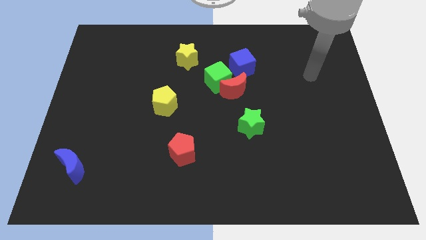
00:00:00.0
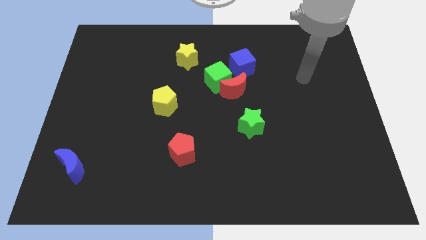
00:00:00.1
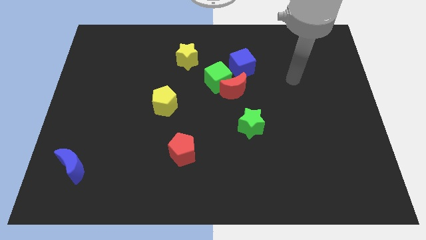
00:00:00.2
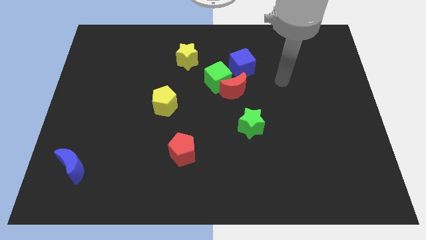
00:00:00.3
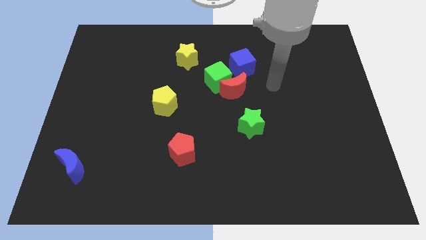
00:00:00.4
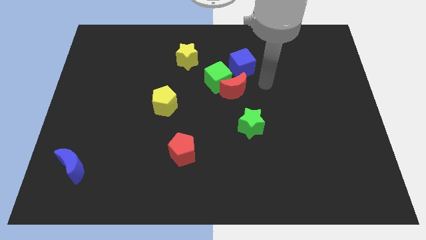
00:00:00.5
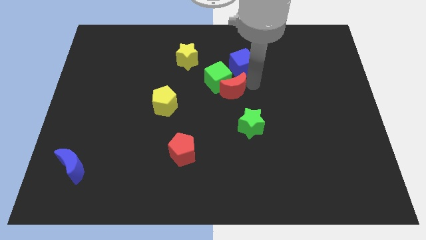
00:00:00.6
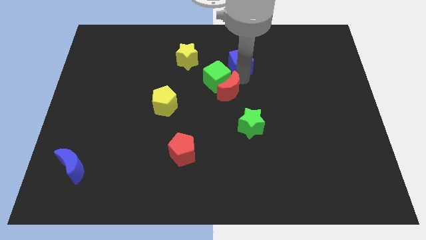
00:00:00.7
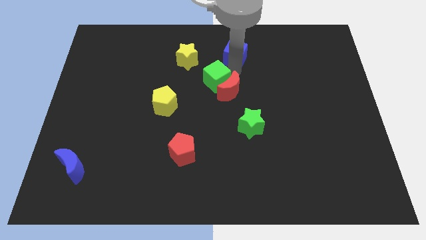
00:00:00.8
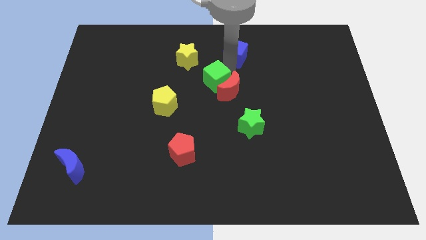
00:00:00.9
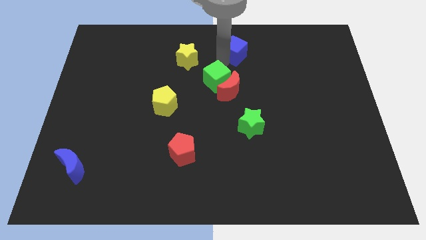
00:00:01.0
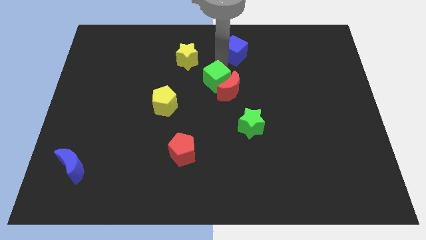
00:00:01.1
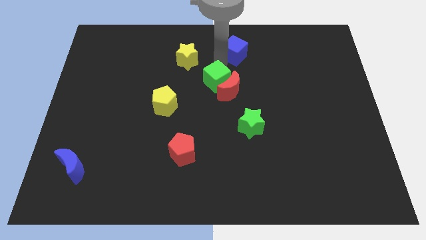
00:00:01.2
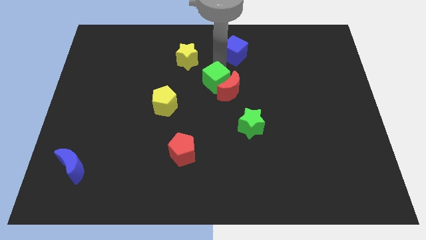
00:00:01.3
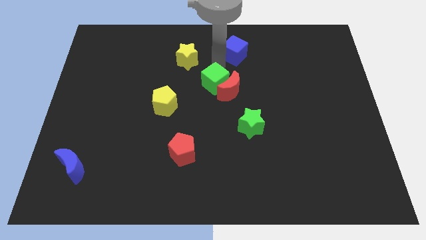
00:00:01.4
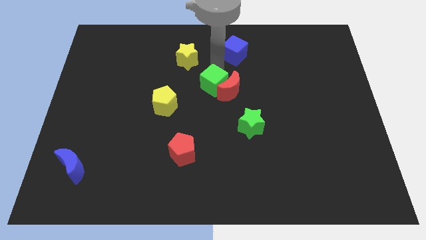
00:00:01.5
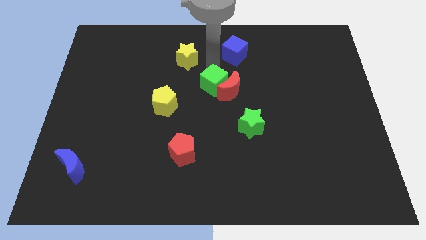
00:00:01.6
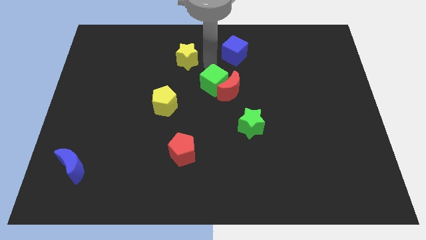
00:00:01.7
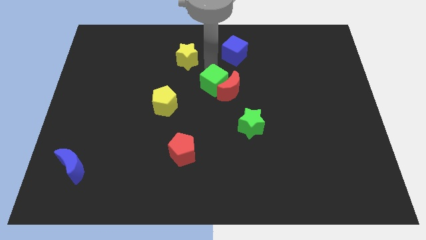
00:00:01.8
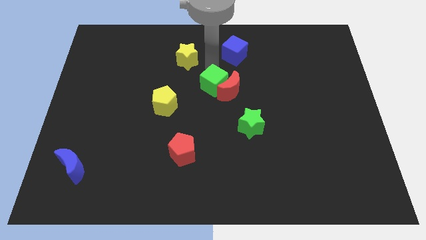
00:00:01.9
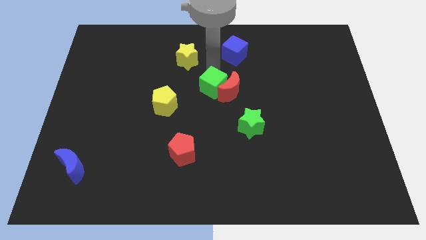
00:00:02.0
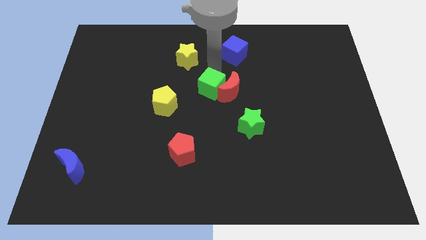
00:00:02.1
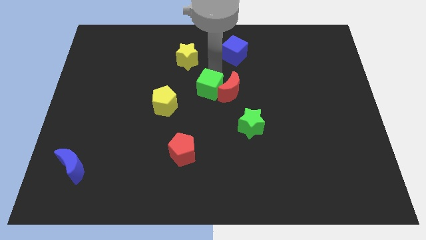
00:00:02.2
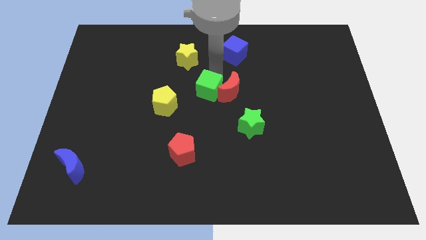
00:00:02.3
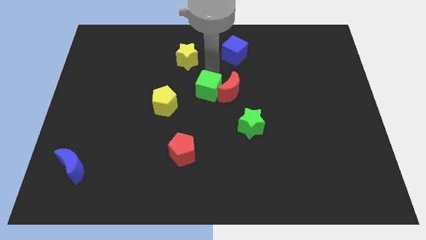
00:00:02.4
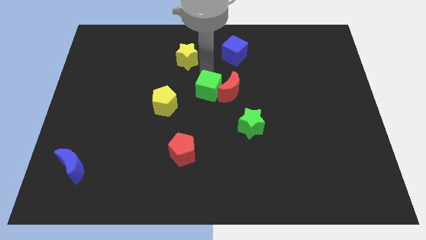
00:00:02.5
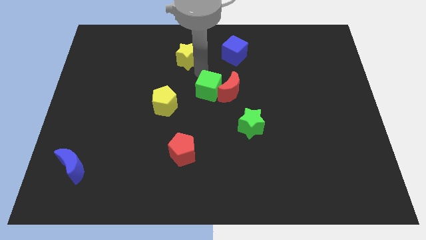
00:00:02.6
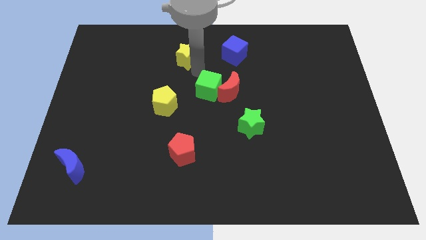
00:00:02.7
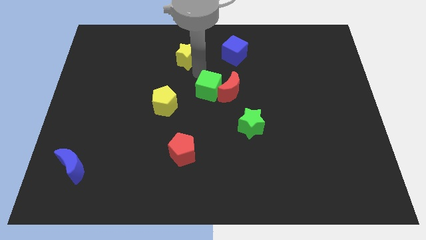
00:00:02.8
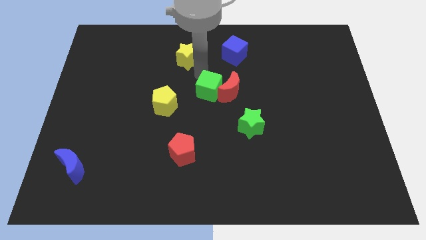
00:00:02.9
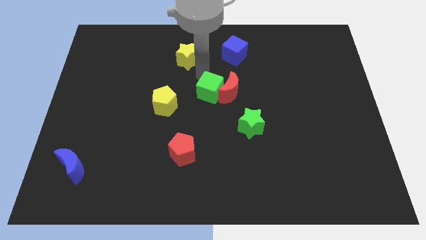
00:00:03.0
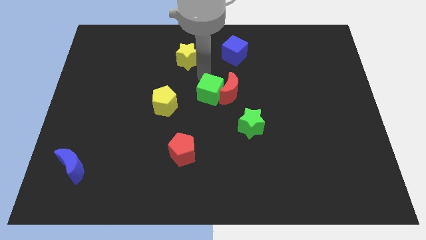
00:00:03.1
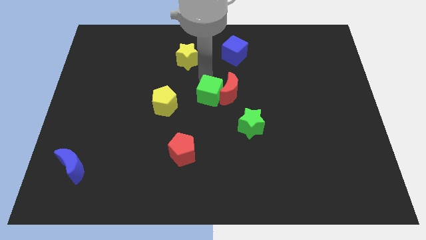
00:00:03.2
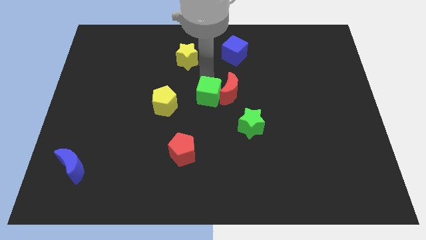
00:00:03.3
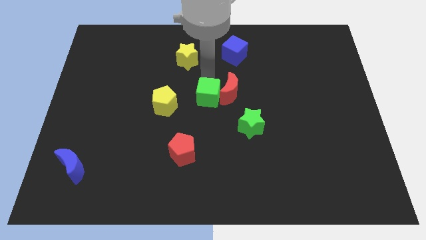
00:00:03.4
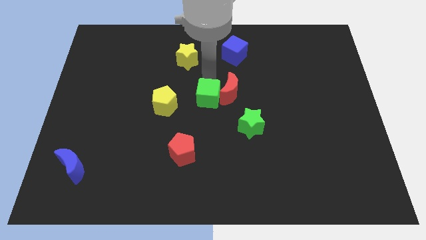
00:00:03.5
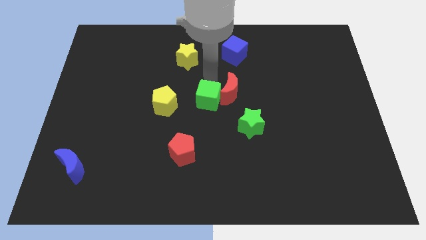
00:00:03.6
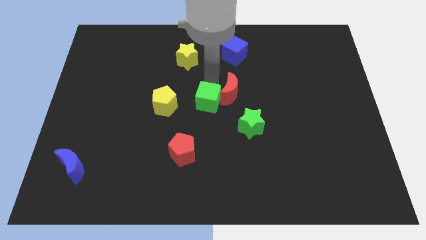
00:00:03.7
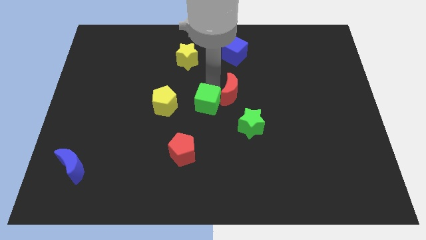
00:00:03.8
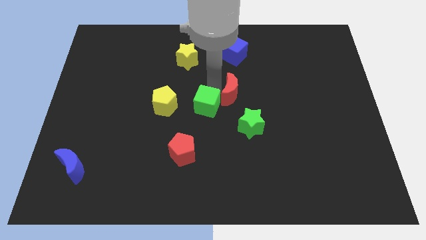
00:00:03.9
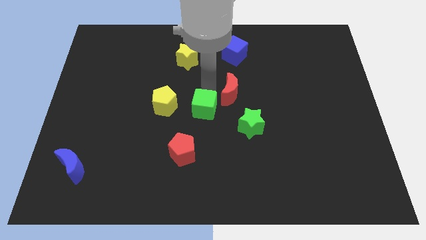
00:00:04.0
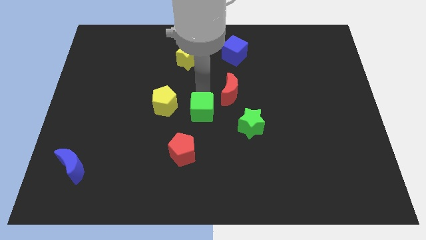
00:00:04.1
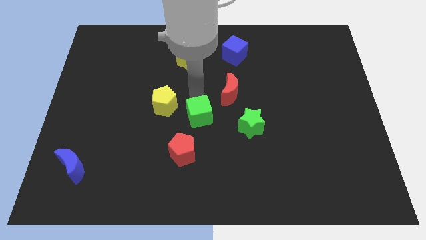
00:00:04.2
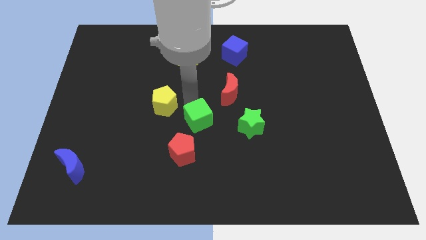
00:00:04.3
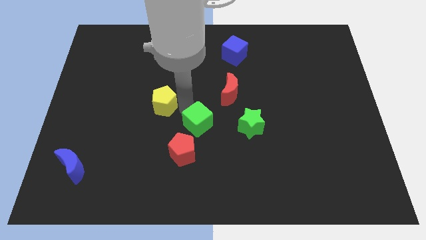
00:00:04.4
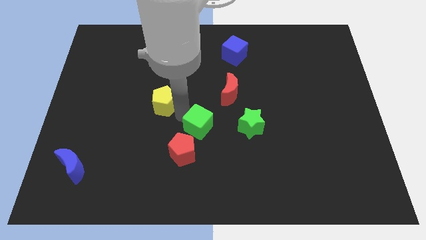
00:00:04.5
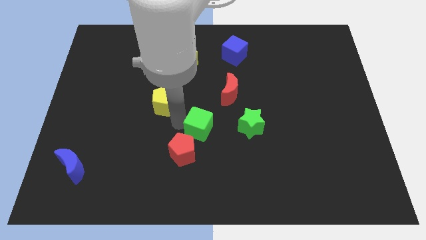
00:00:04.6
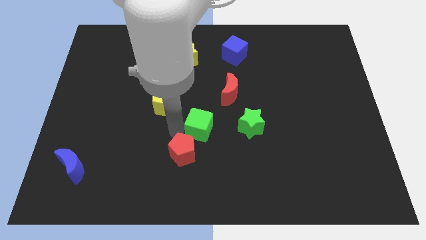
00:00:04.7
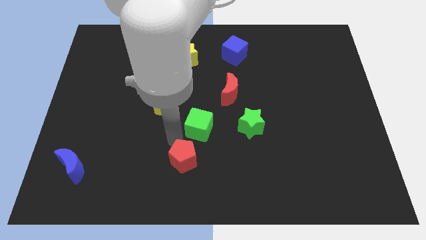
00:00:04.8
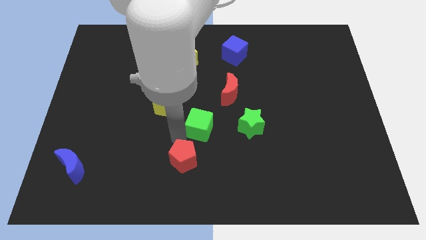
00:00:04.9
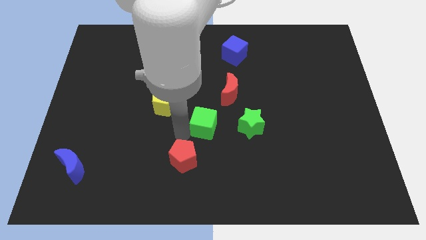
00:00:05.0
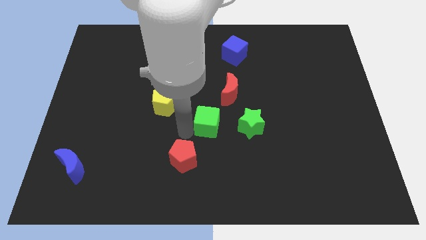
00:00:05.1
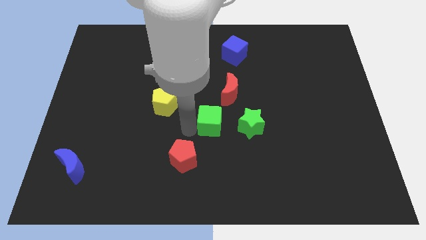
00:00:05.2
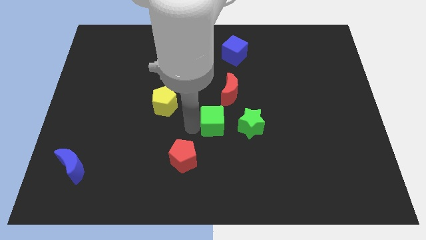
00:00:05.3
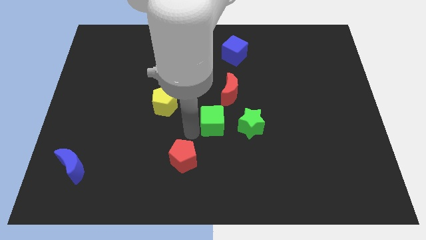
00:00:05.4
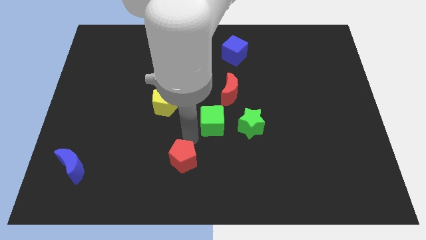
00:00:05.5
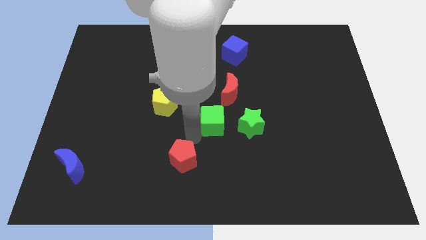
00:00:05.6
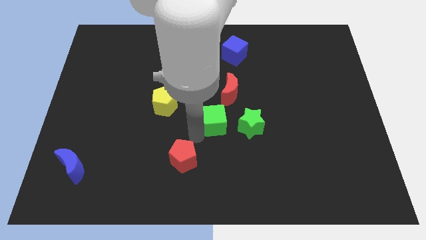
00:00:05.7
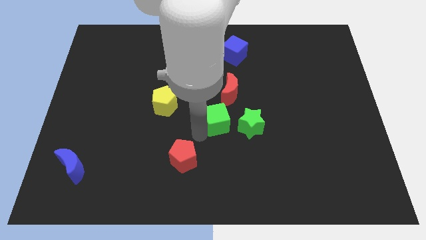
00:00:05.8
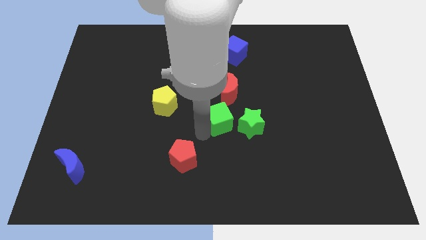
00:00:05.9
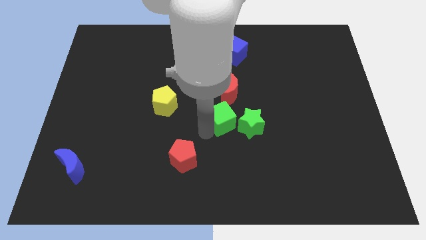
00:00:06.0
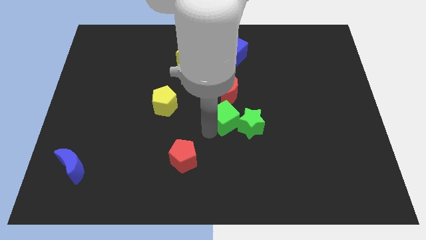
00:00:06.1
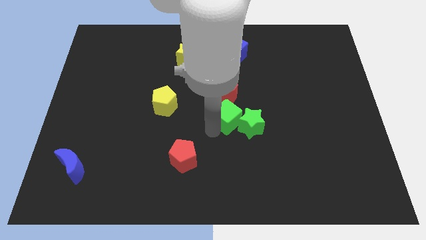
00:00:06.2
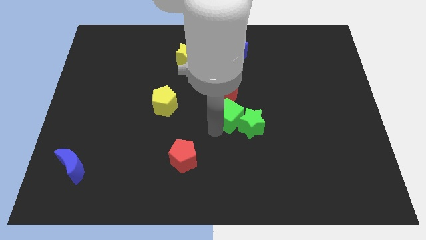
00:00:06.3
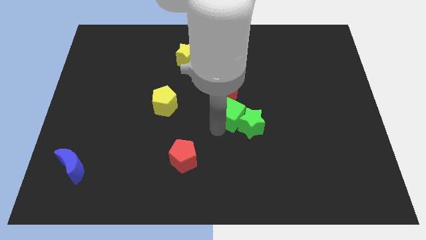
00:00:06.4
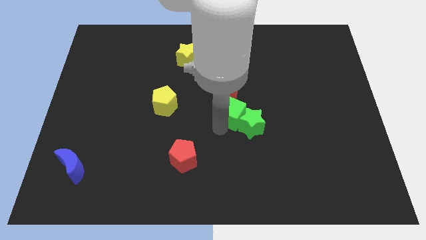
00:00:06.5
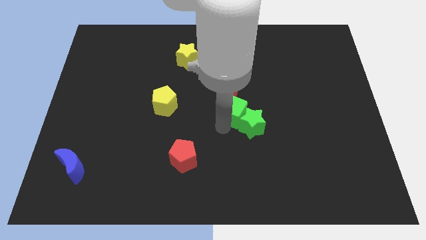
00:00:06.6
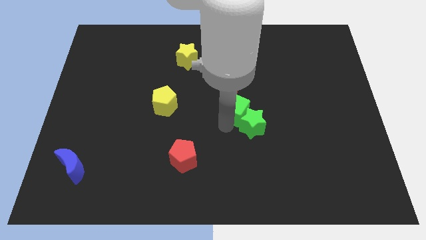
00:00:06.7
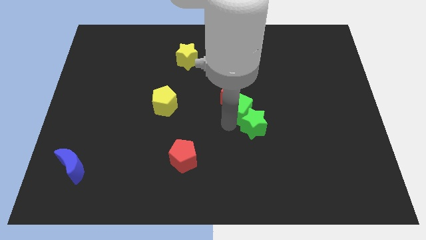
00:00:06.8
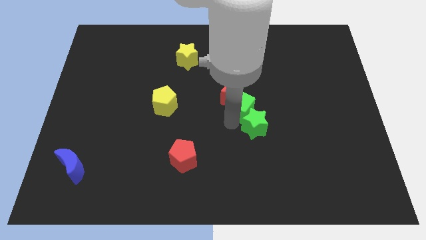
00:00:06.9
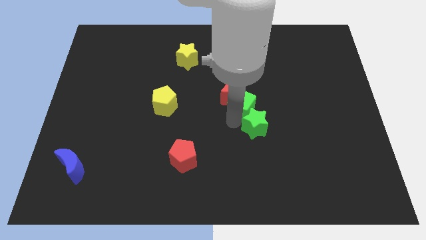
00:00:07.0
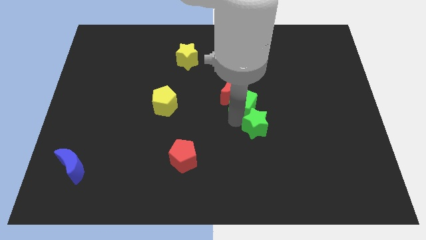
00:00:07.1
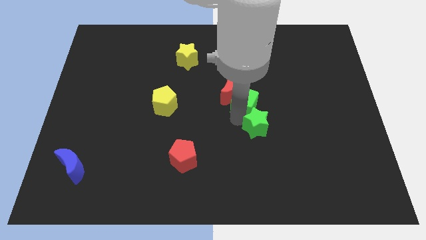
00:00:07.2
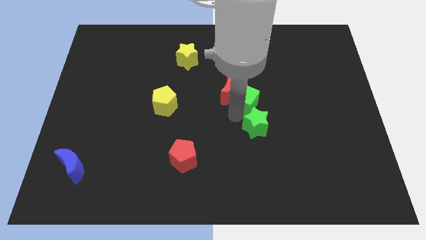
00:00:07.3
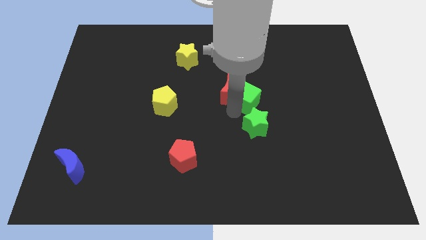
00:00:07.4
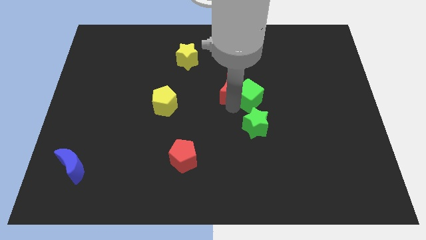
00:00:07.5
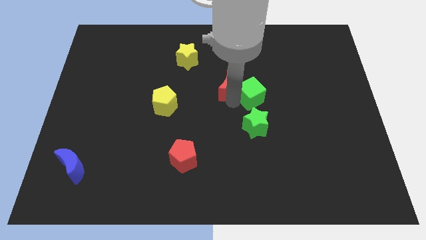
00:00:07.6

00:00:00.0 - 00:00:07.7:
move the green cube right a bit

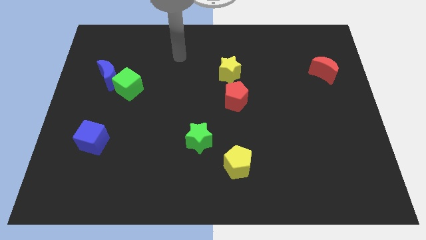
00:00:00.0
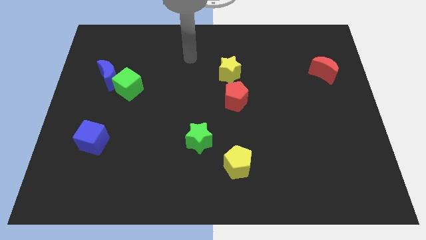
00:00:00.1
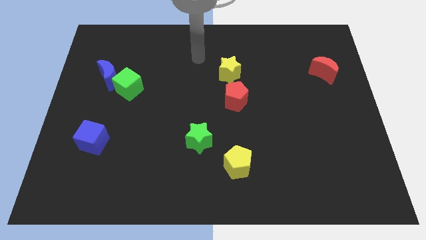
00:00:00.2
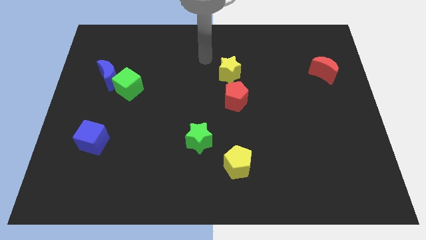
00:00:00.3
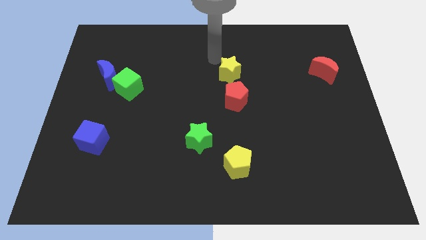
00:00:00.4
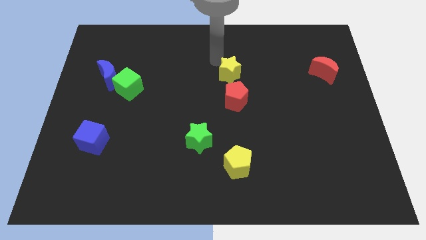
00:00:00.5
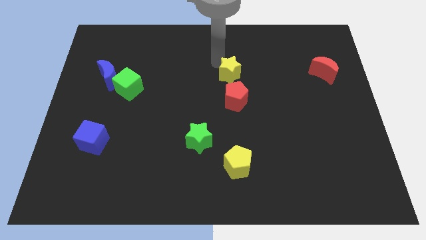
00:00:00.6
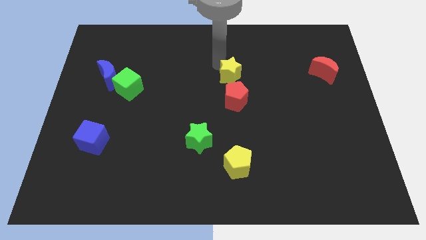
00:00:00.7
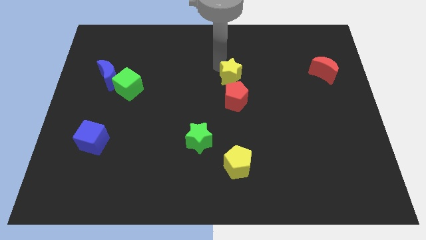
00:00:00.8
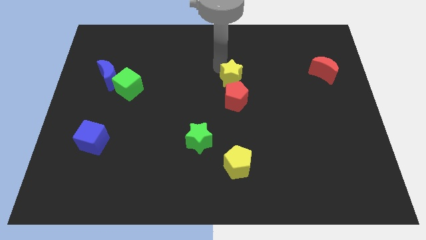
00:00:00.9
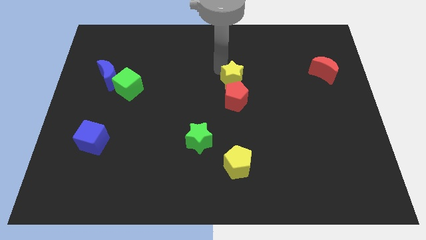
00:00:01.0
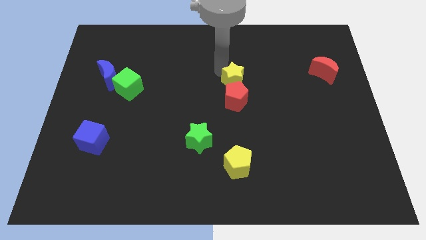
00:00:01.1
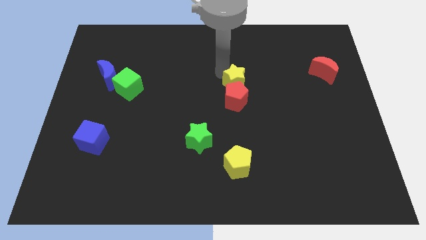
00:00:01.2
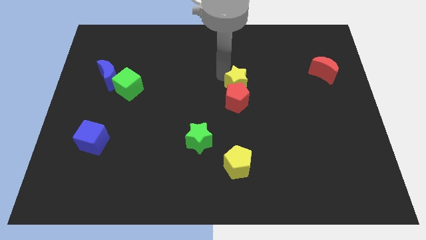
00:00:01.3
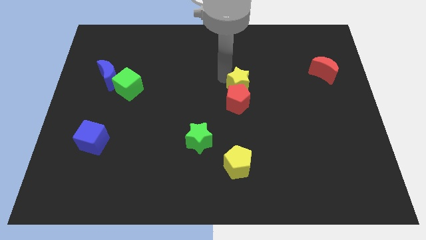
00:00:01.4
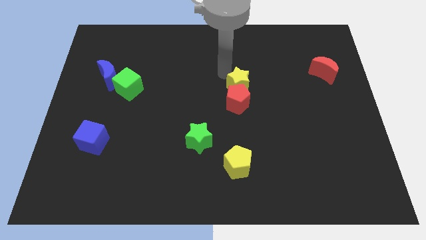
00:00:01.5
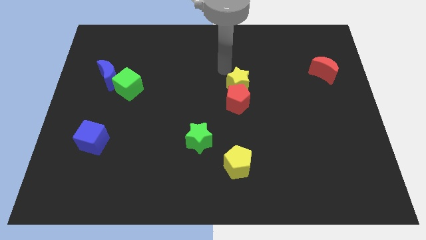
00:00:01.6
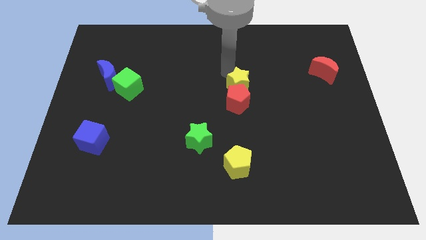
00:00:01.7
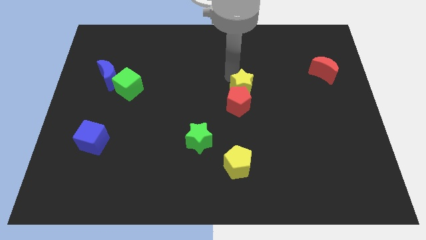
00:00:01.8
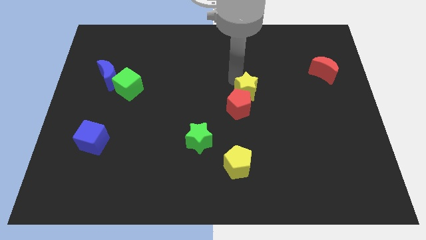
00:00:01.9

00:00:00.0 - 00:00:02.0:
slide the yellow star a little down and then right
